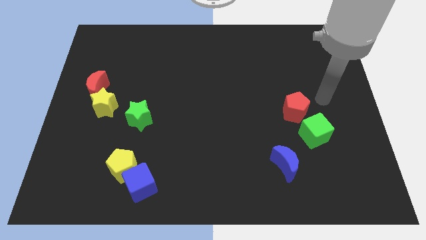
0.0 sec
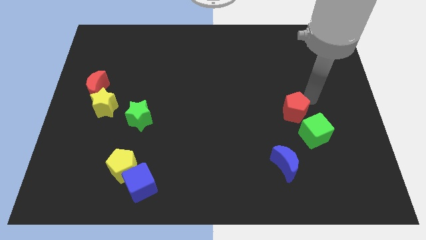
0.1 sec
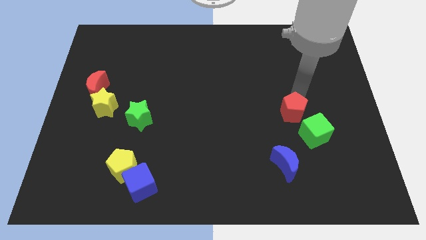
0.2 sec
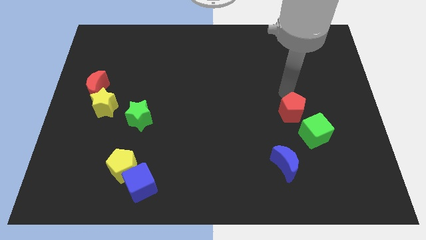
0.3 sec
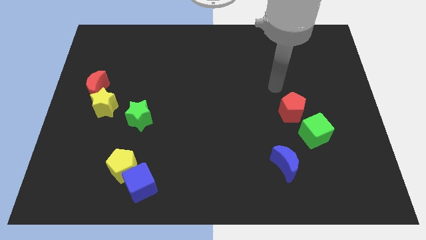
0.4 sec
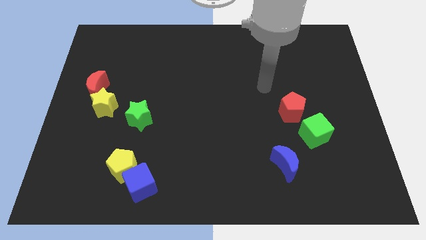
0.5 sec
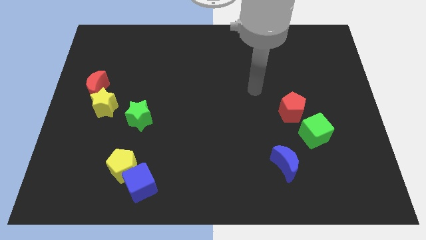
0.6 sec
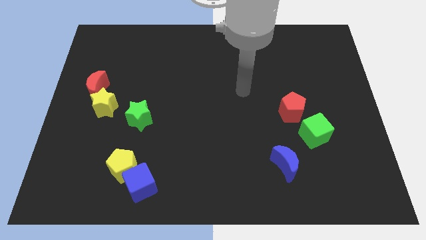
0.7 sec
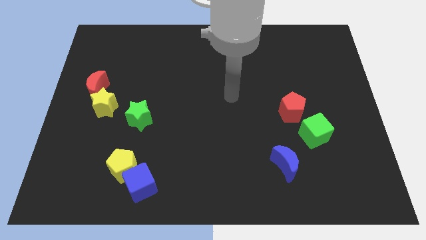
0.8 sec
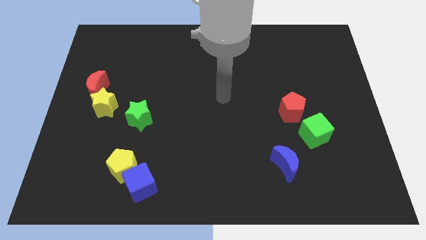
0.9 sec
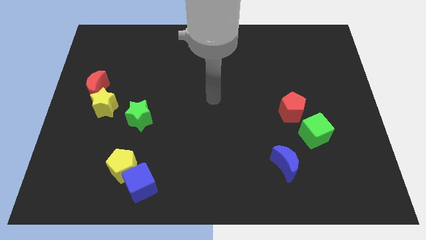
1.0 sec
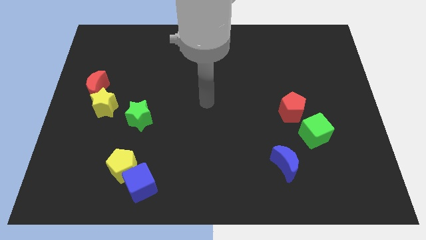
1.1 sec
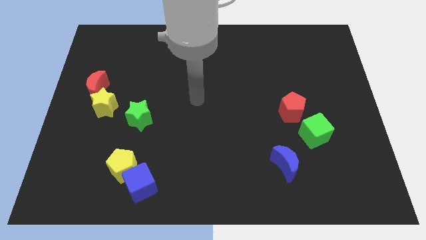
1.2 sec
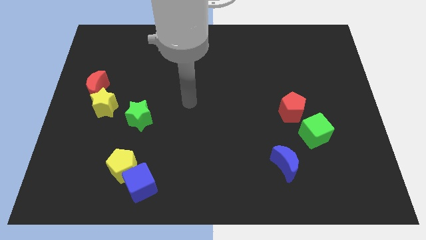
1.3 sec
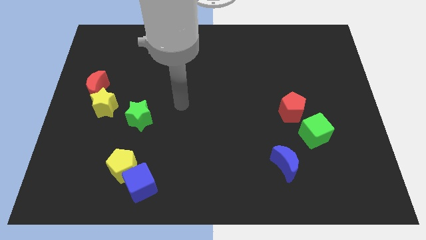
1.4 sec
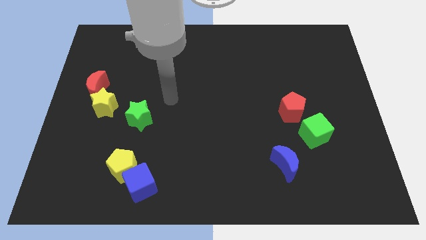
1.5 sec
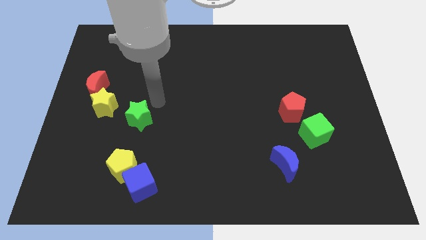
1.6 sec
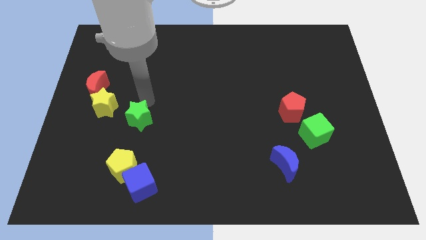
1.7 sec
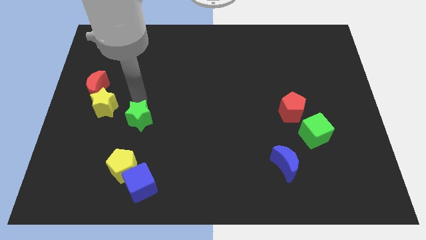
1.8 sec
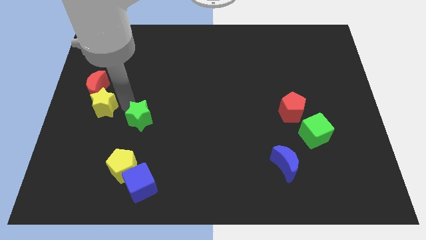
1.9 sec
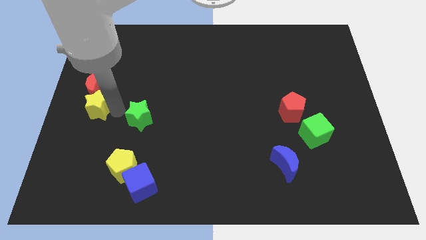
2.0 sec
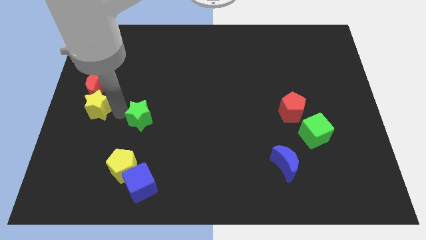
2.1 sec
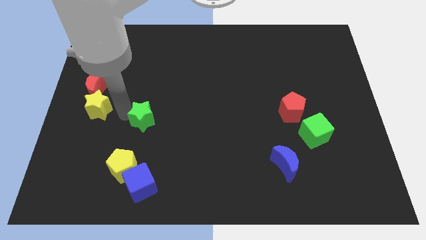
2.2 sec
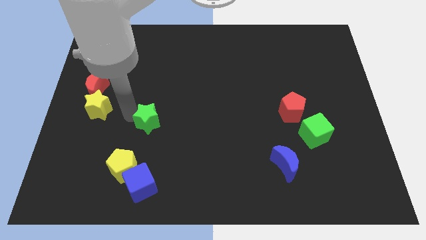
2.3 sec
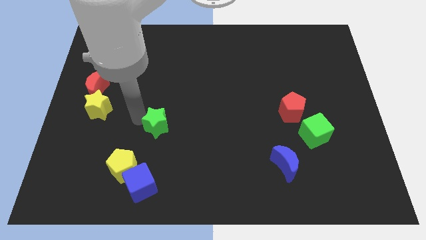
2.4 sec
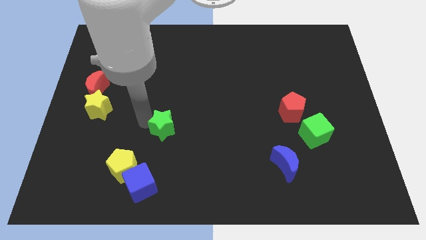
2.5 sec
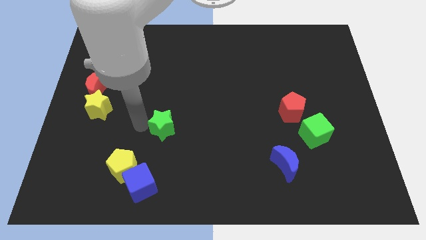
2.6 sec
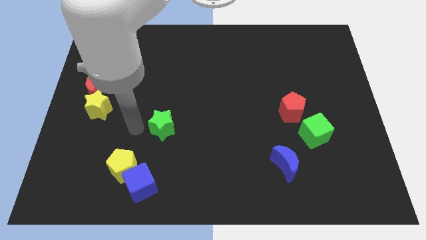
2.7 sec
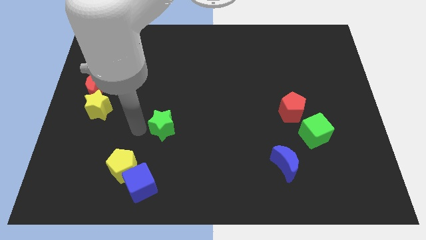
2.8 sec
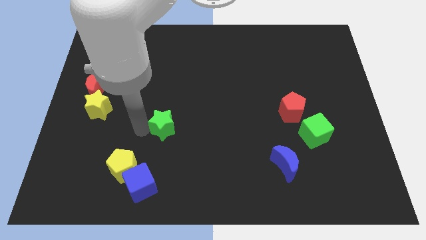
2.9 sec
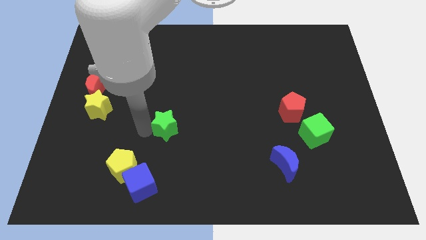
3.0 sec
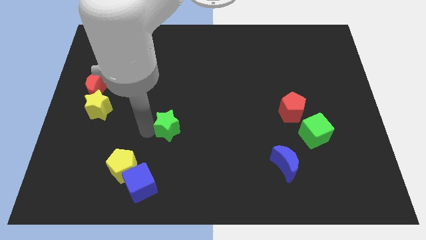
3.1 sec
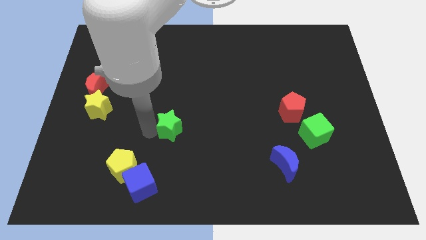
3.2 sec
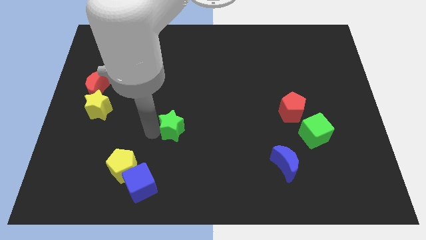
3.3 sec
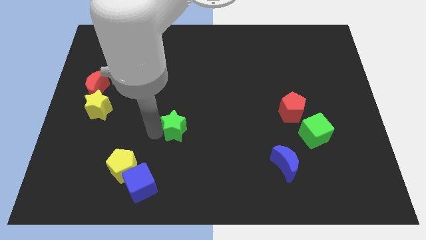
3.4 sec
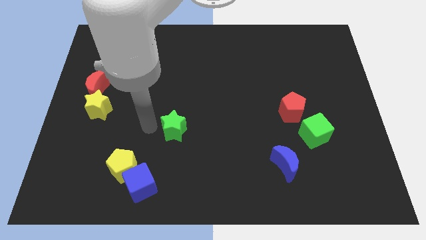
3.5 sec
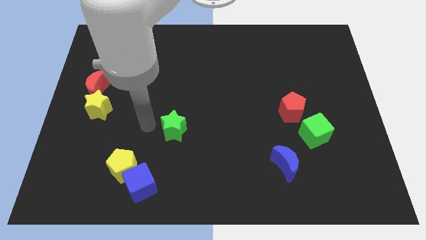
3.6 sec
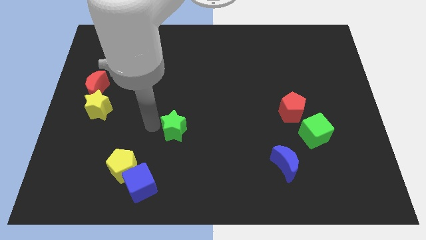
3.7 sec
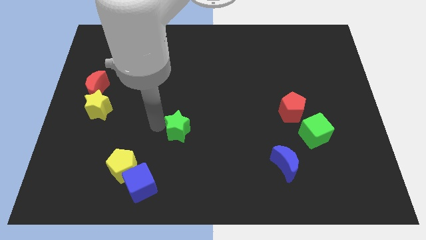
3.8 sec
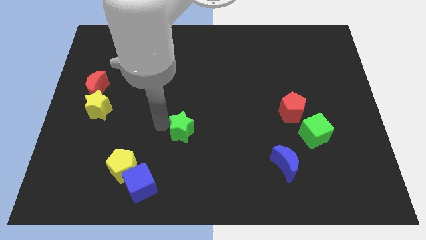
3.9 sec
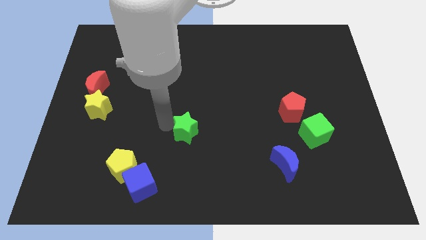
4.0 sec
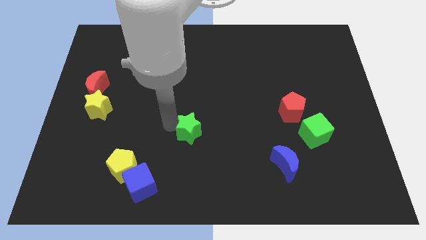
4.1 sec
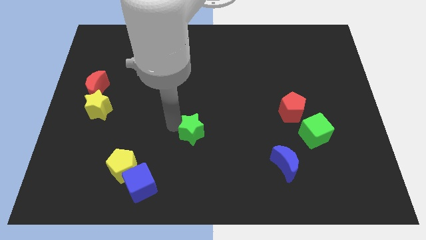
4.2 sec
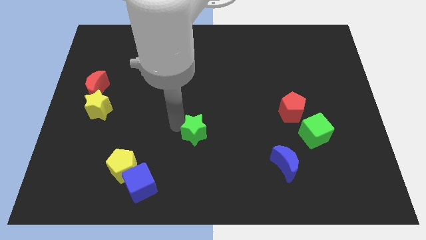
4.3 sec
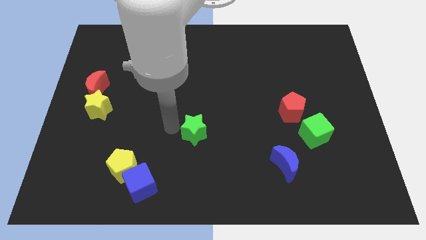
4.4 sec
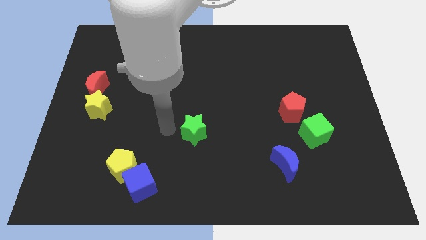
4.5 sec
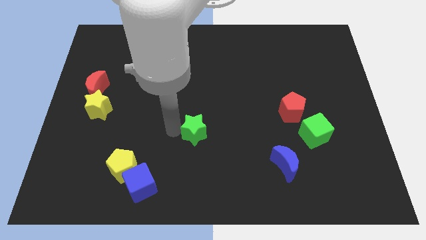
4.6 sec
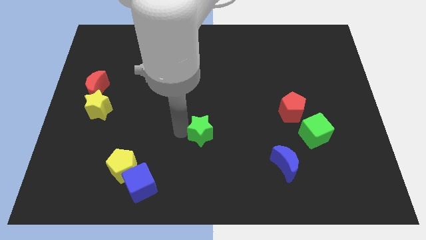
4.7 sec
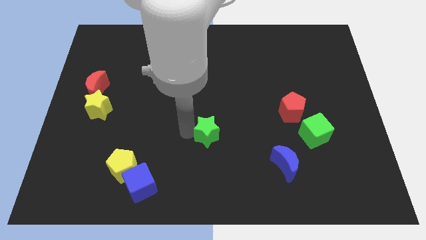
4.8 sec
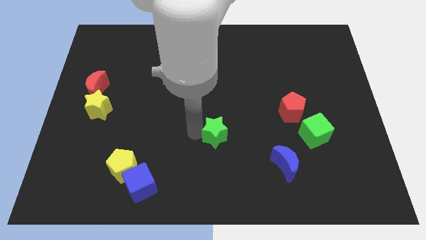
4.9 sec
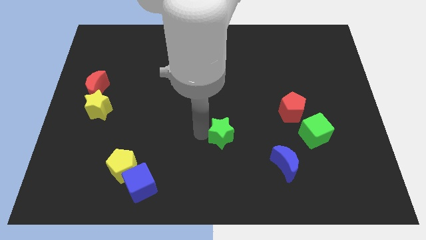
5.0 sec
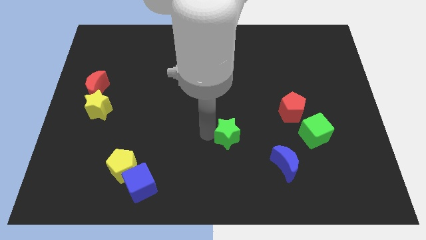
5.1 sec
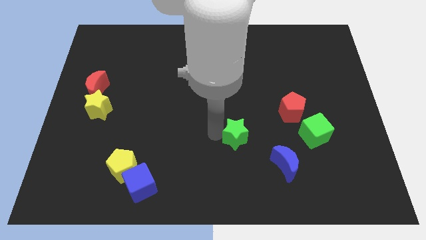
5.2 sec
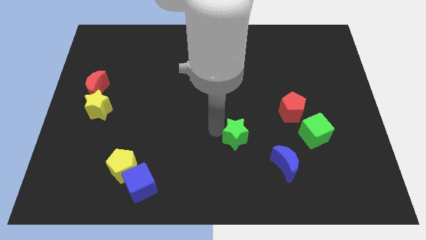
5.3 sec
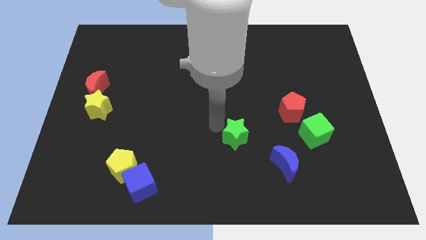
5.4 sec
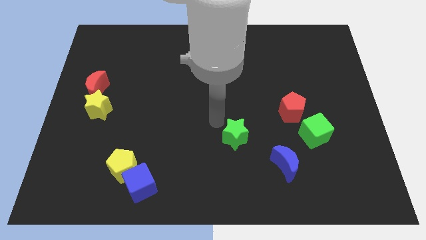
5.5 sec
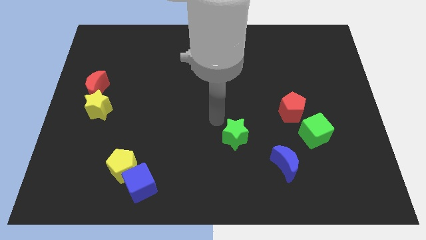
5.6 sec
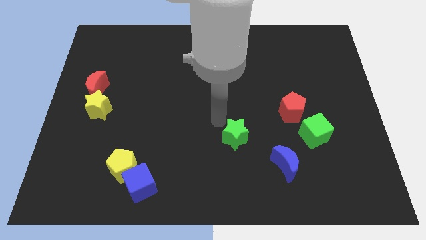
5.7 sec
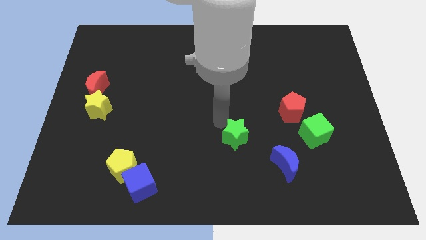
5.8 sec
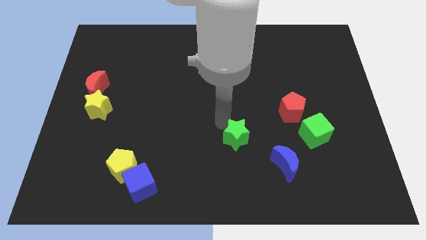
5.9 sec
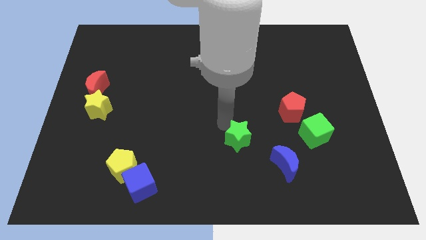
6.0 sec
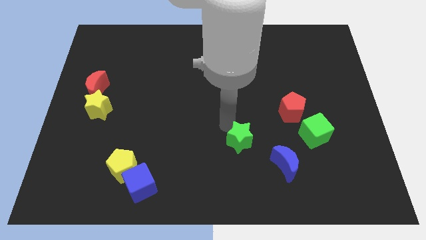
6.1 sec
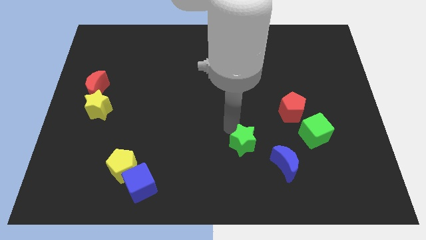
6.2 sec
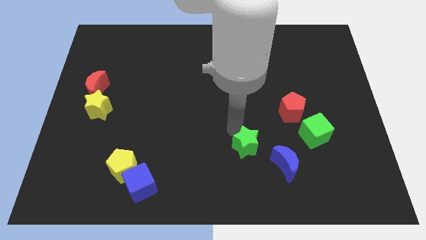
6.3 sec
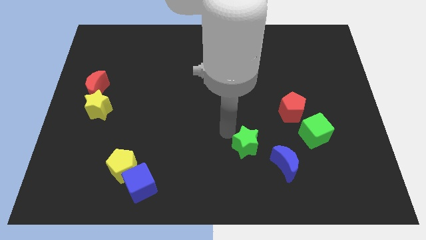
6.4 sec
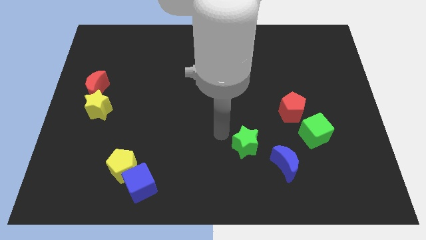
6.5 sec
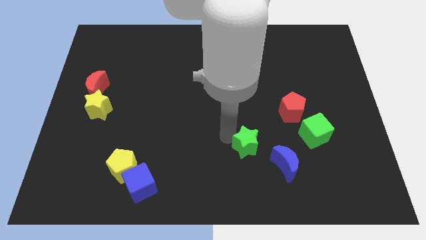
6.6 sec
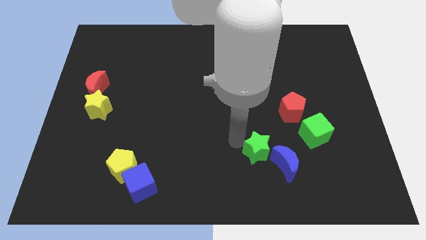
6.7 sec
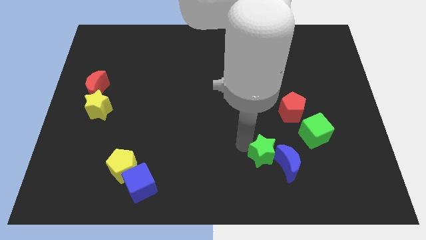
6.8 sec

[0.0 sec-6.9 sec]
slide the green star towards the blue moon

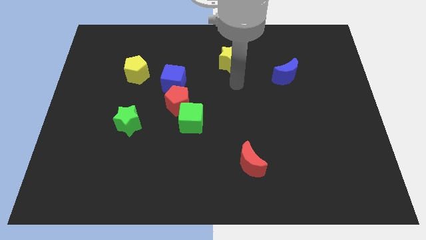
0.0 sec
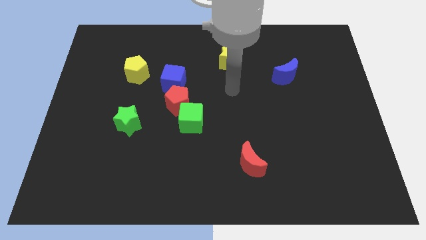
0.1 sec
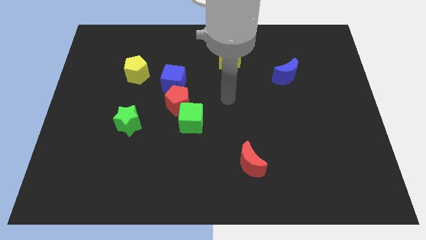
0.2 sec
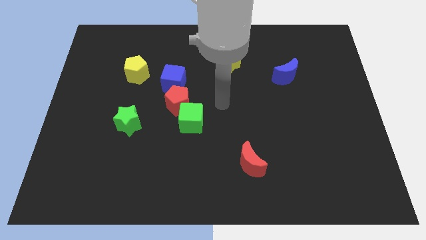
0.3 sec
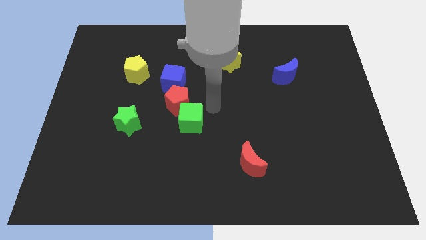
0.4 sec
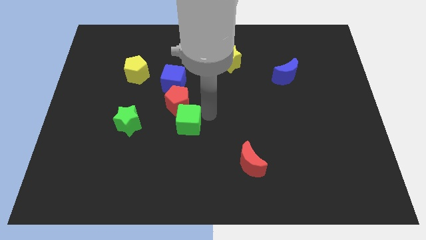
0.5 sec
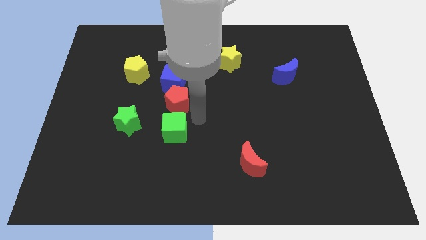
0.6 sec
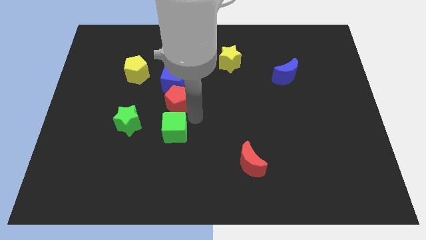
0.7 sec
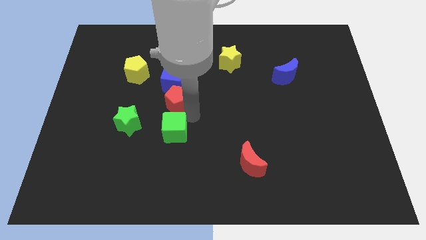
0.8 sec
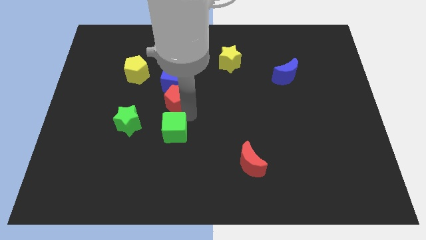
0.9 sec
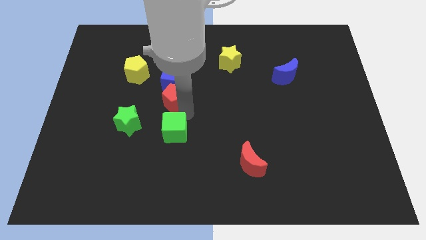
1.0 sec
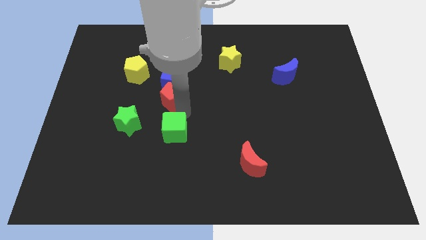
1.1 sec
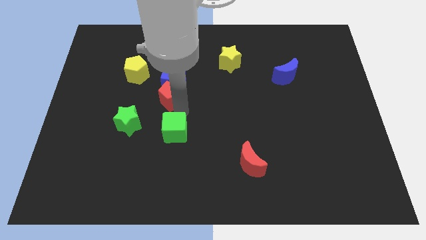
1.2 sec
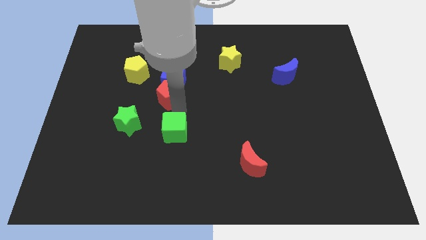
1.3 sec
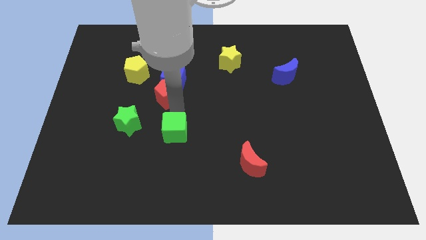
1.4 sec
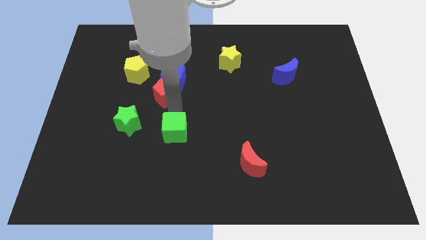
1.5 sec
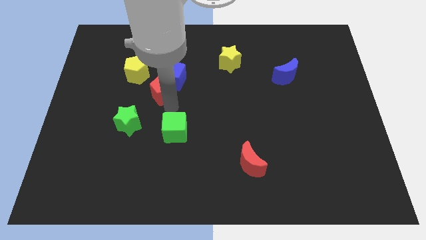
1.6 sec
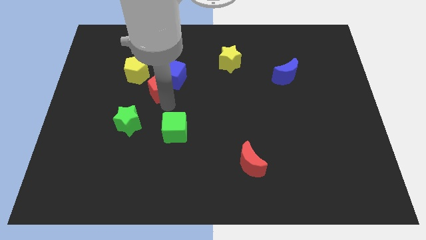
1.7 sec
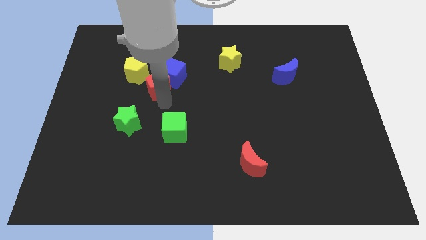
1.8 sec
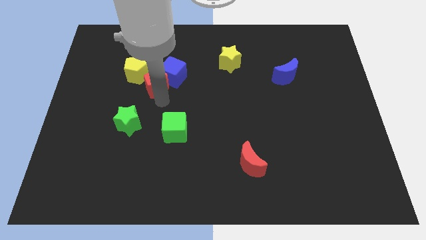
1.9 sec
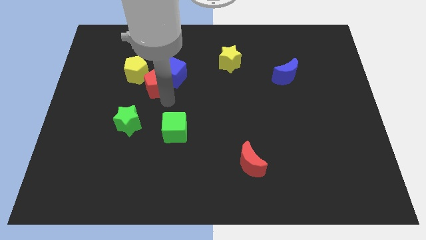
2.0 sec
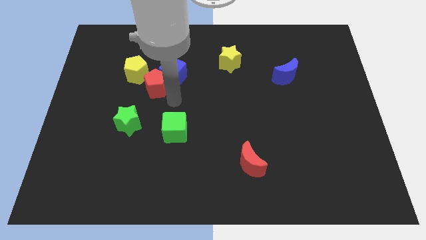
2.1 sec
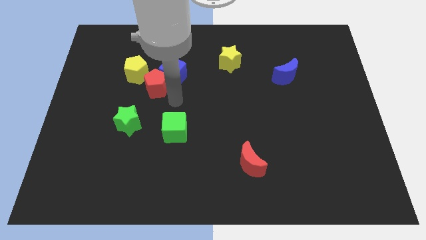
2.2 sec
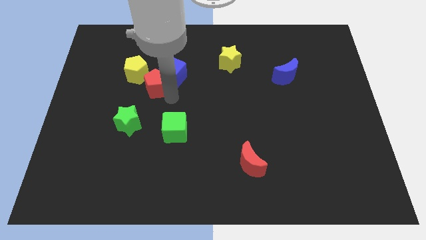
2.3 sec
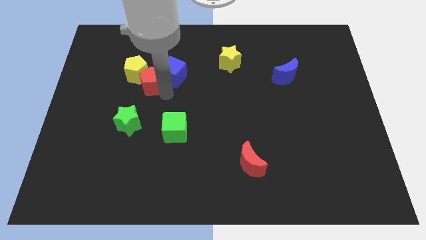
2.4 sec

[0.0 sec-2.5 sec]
move the red pentagon close to the yellow pentagon
